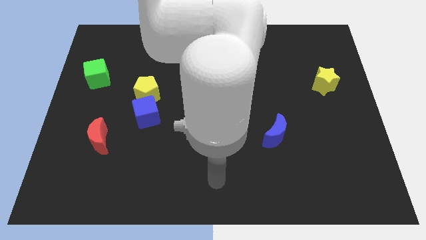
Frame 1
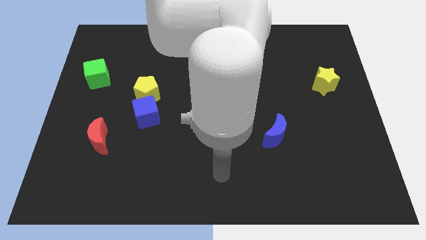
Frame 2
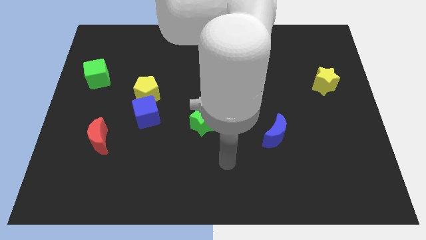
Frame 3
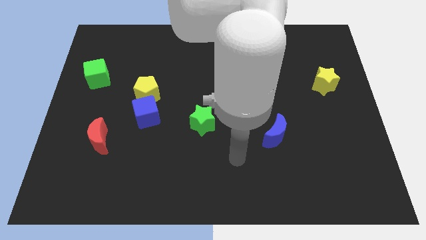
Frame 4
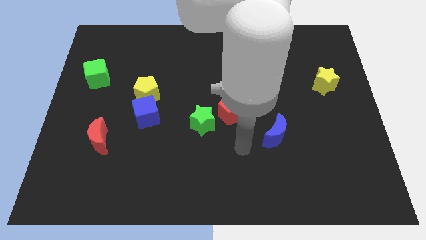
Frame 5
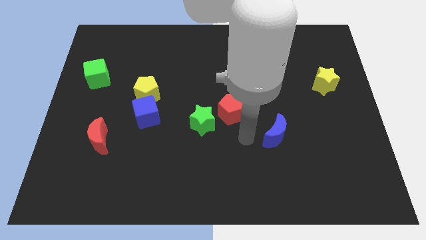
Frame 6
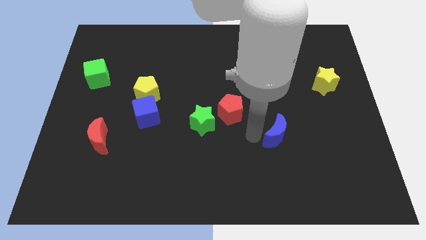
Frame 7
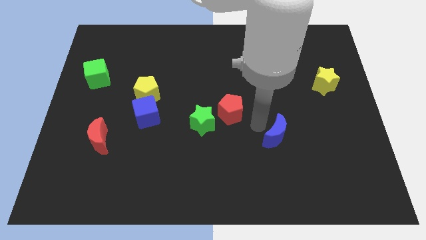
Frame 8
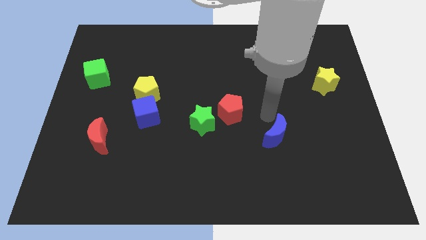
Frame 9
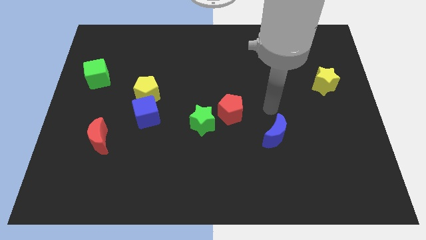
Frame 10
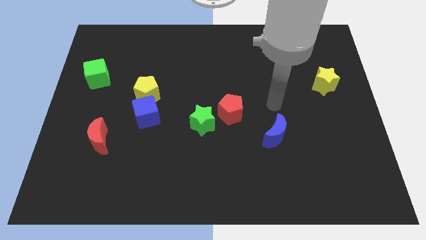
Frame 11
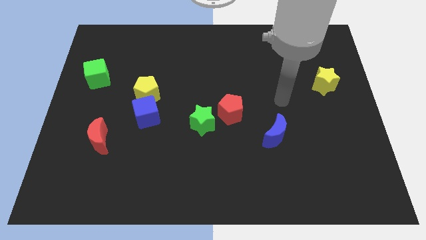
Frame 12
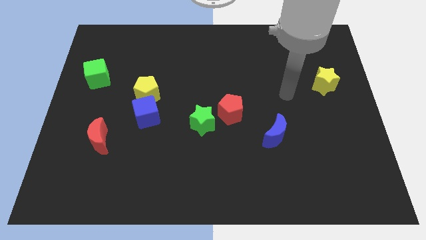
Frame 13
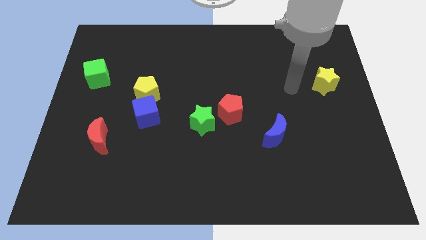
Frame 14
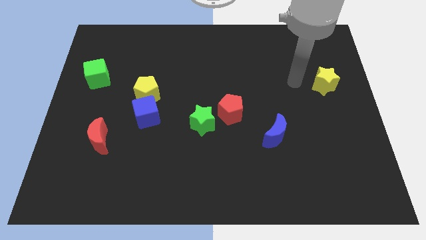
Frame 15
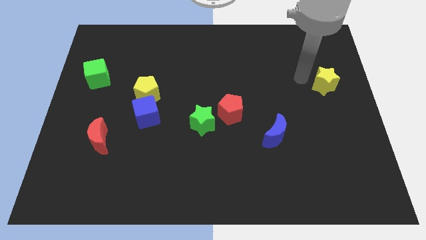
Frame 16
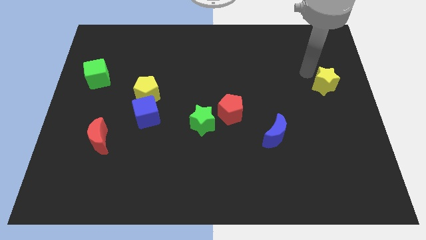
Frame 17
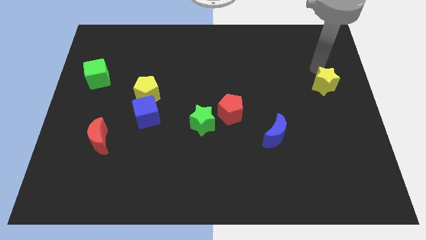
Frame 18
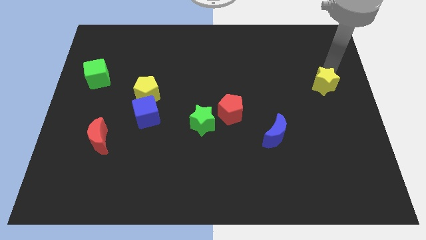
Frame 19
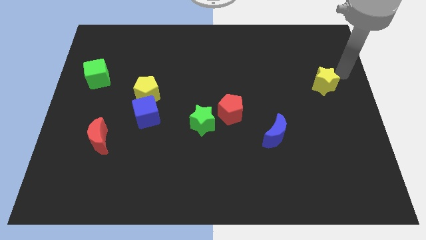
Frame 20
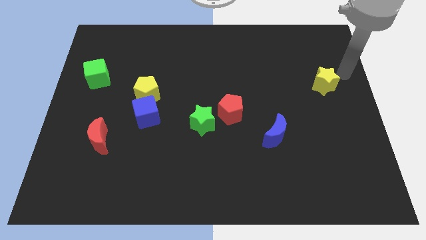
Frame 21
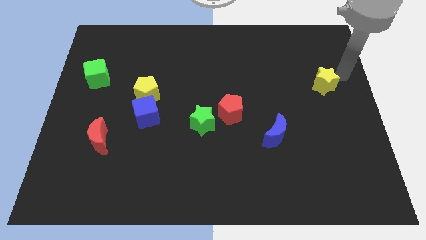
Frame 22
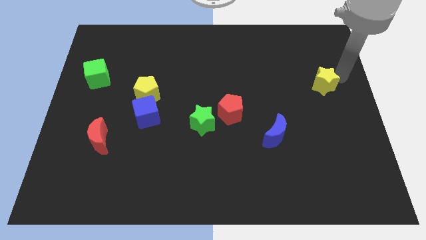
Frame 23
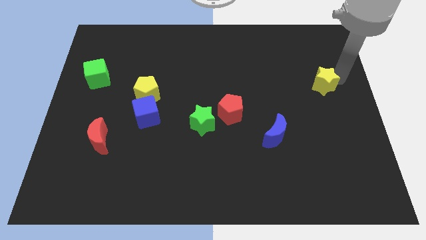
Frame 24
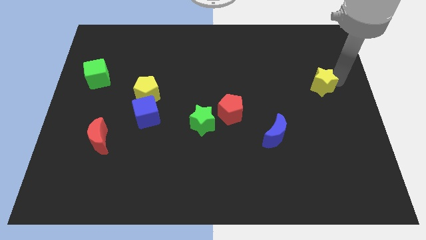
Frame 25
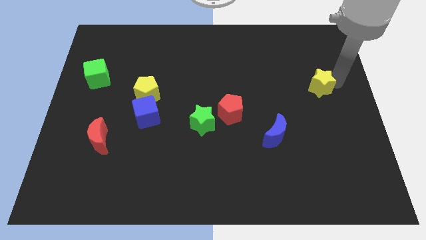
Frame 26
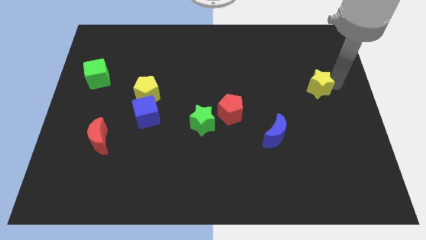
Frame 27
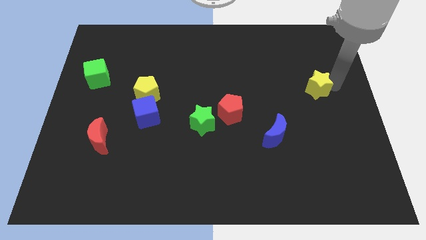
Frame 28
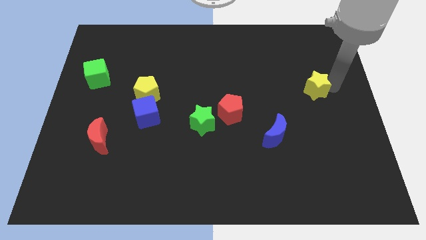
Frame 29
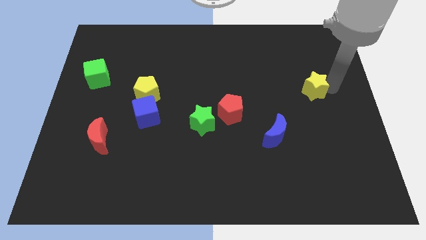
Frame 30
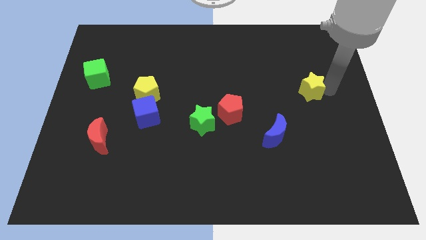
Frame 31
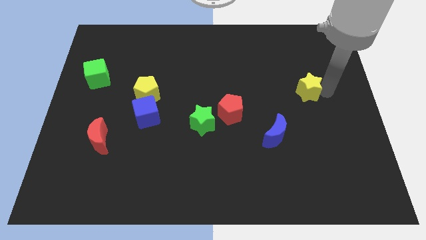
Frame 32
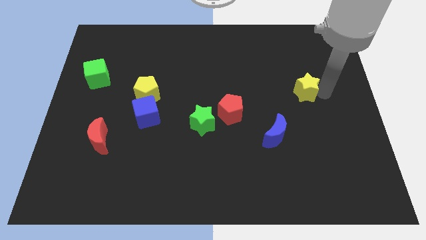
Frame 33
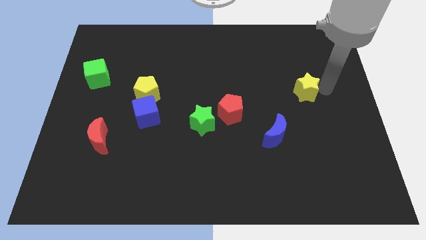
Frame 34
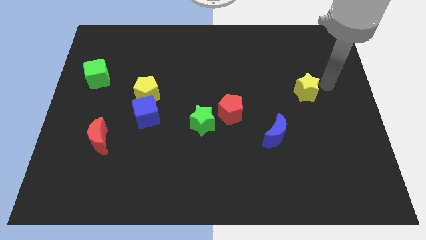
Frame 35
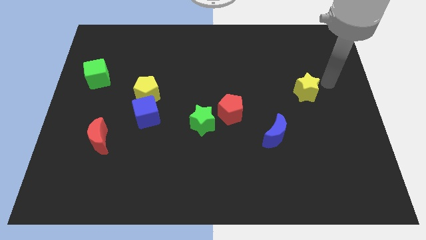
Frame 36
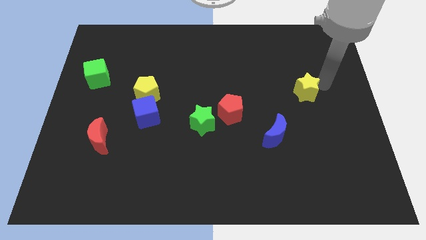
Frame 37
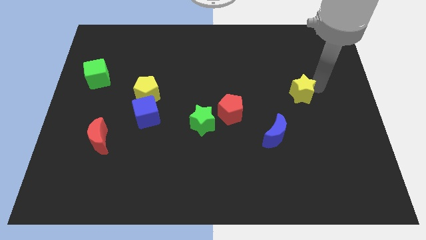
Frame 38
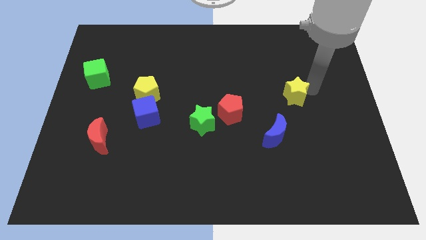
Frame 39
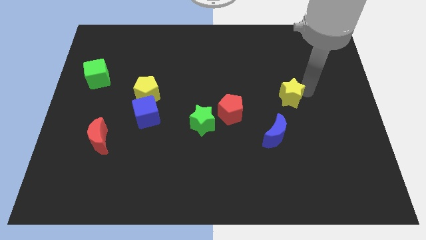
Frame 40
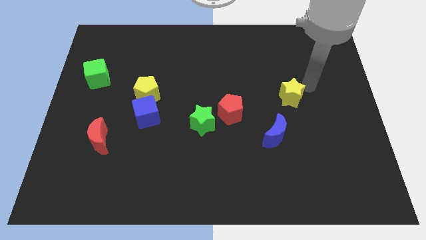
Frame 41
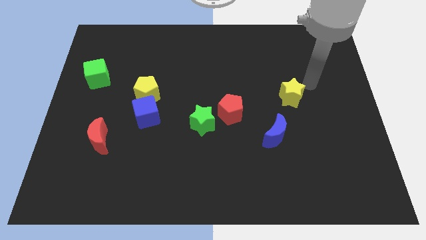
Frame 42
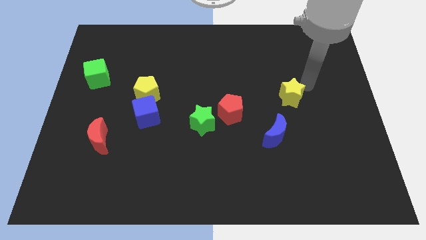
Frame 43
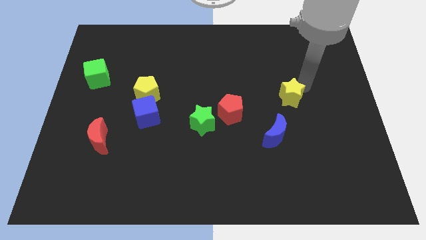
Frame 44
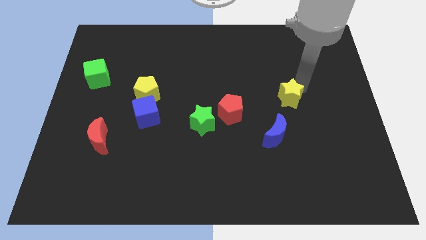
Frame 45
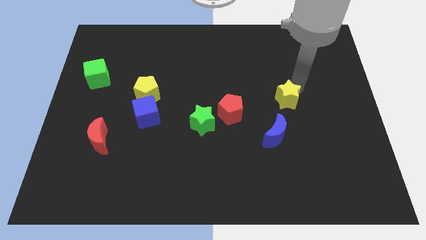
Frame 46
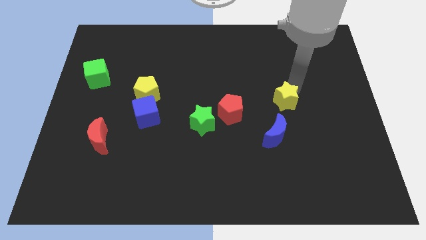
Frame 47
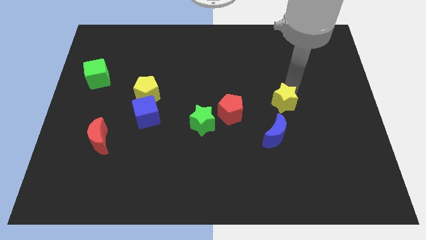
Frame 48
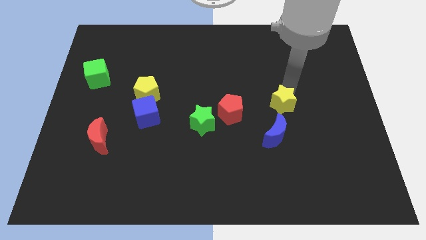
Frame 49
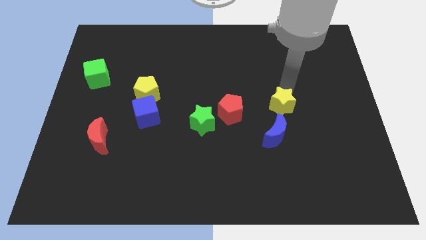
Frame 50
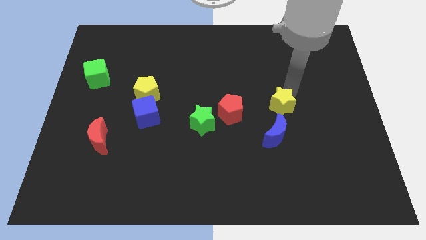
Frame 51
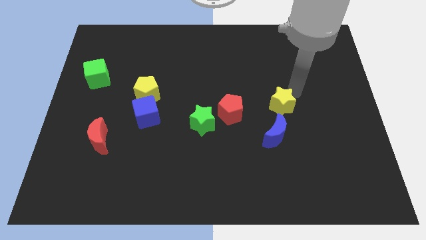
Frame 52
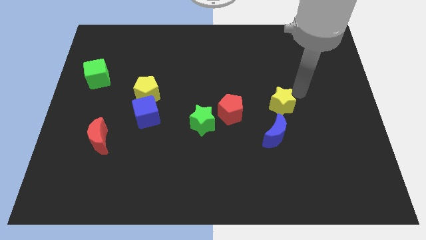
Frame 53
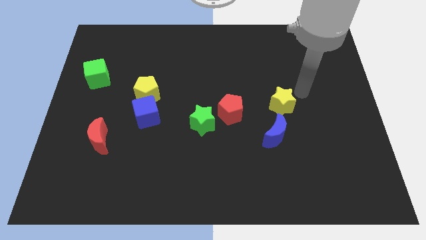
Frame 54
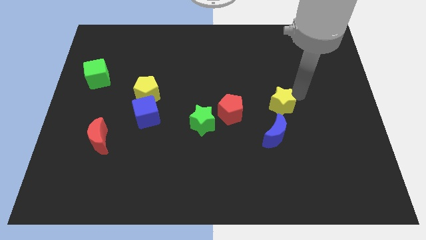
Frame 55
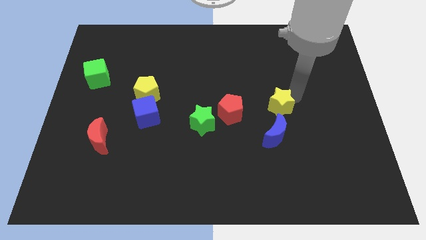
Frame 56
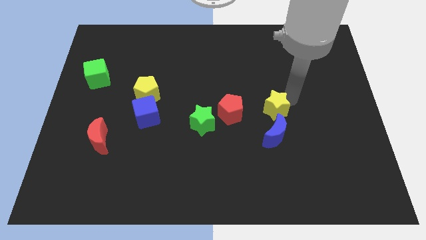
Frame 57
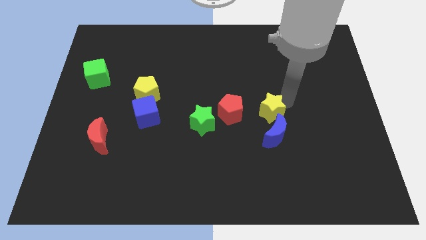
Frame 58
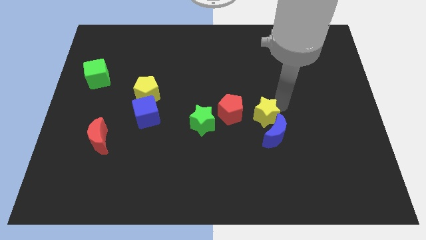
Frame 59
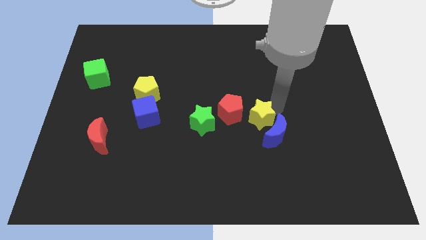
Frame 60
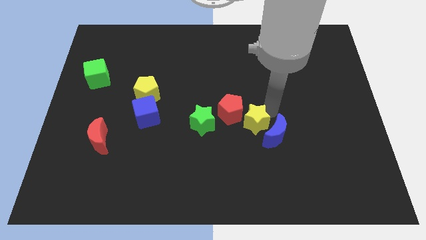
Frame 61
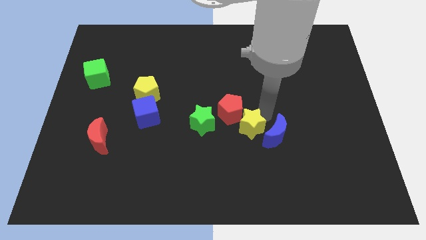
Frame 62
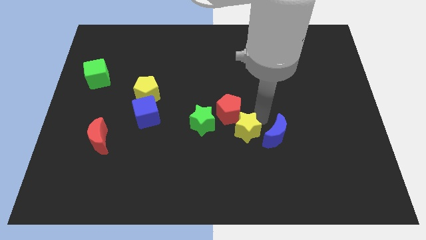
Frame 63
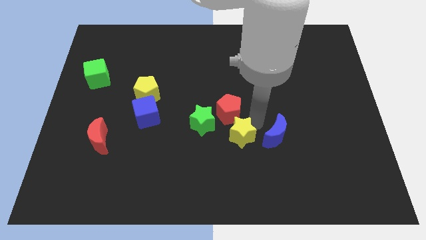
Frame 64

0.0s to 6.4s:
move the yellow star to the bottom right of the green star
